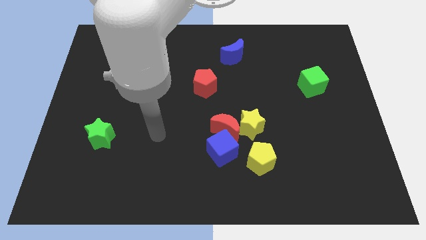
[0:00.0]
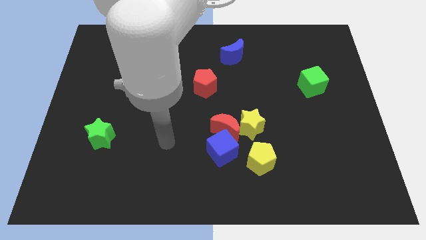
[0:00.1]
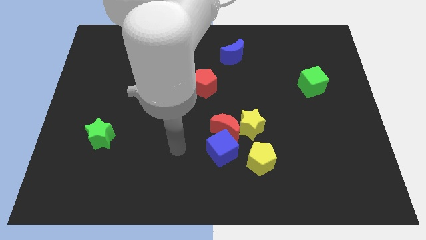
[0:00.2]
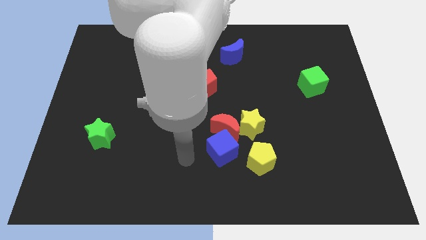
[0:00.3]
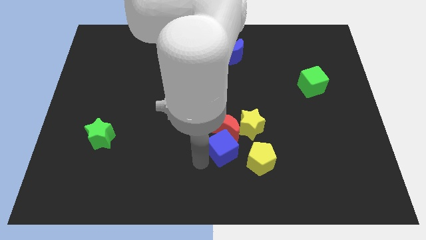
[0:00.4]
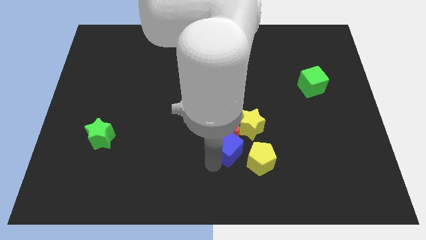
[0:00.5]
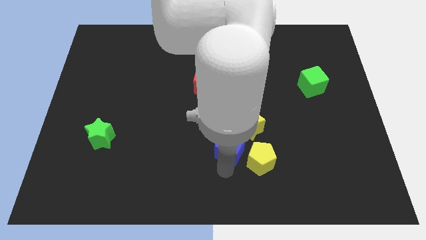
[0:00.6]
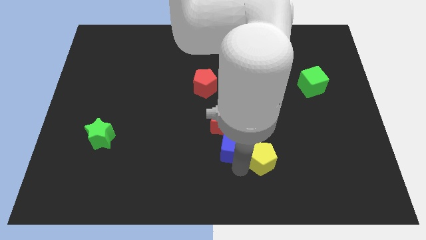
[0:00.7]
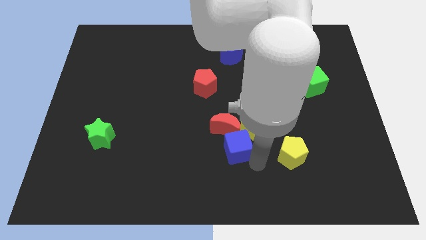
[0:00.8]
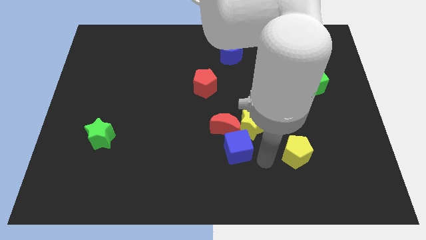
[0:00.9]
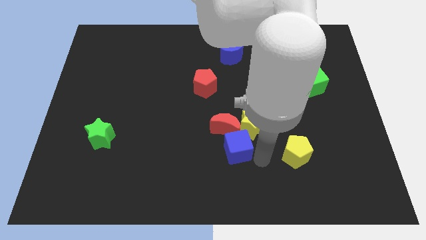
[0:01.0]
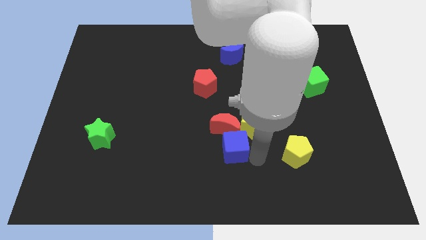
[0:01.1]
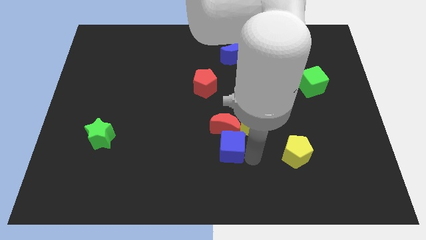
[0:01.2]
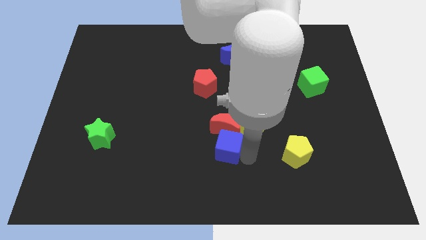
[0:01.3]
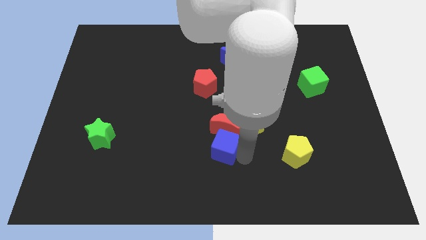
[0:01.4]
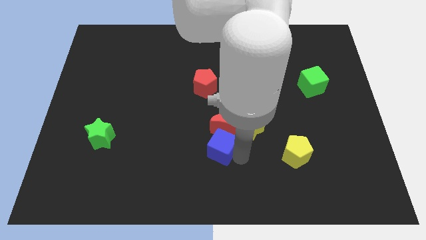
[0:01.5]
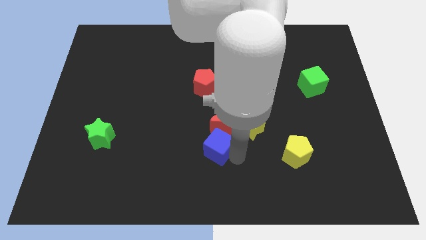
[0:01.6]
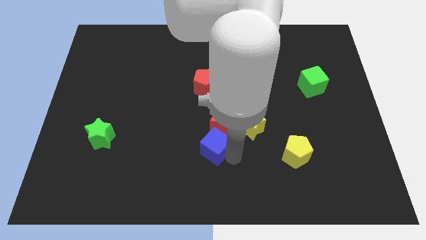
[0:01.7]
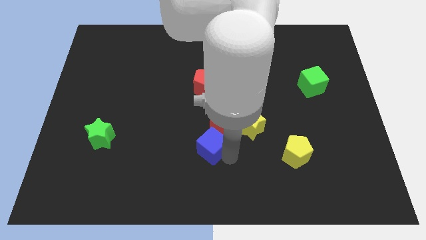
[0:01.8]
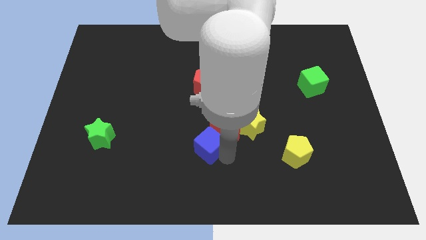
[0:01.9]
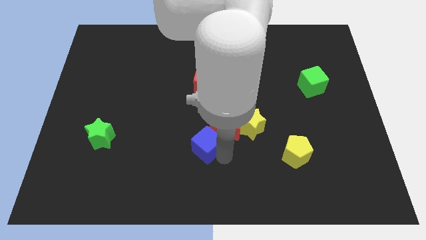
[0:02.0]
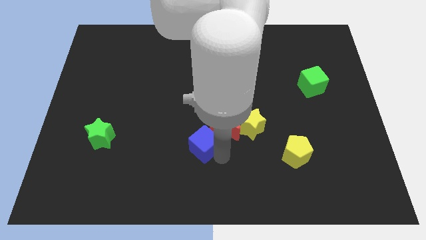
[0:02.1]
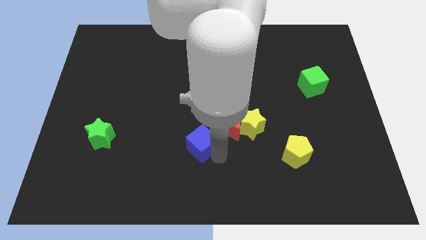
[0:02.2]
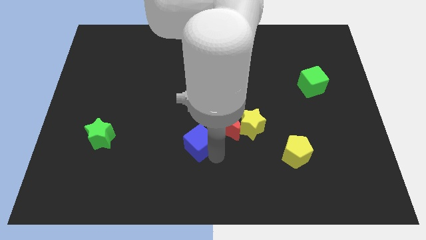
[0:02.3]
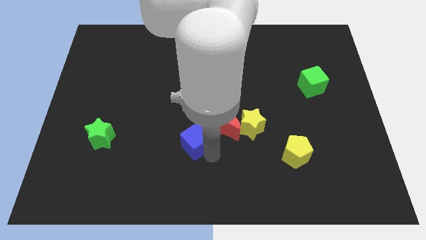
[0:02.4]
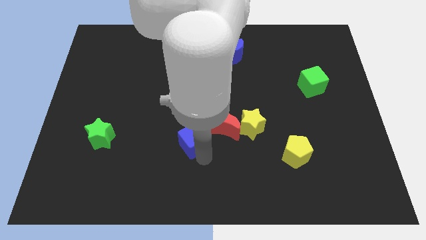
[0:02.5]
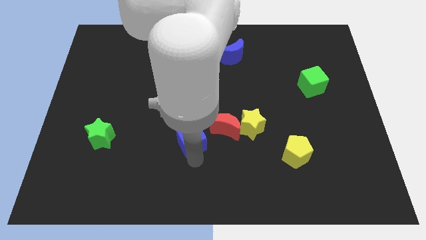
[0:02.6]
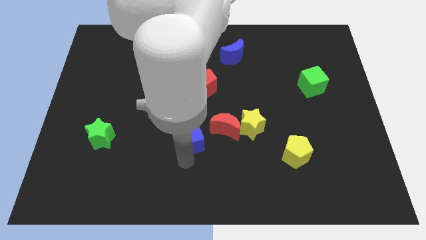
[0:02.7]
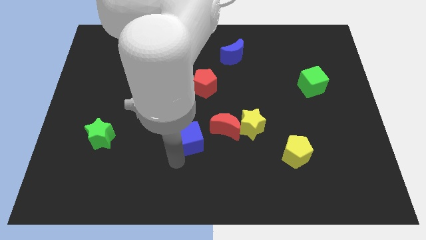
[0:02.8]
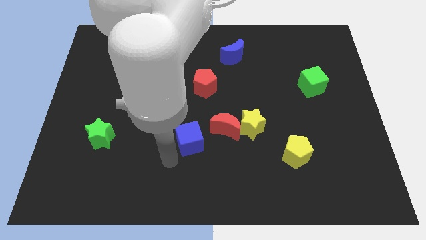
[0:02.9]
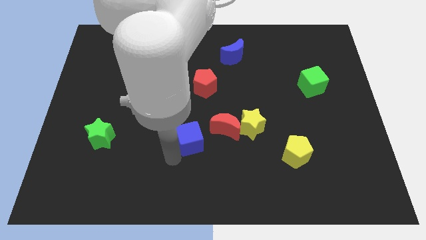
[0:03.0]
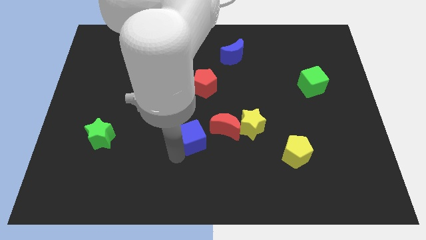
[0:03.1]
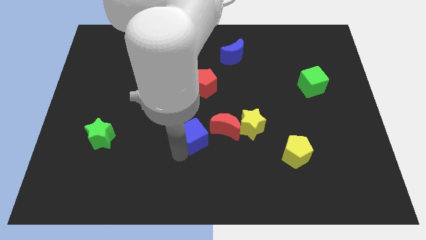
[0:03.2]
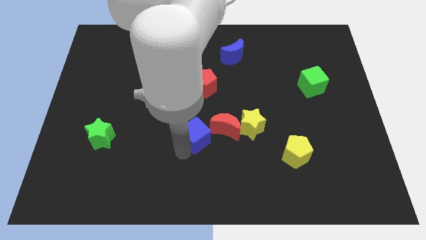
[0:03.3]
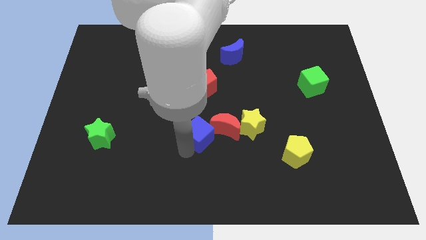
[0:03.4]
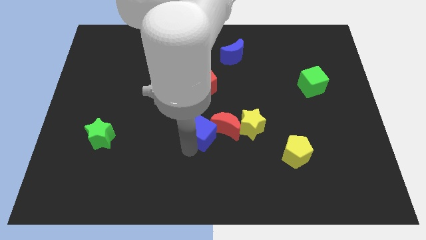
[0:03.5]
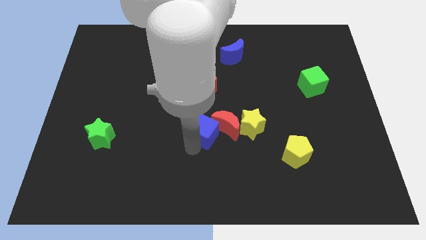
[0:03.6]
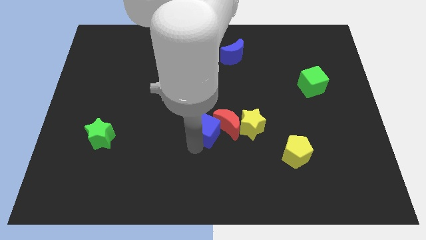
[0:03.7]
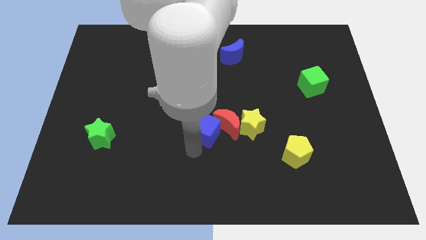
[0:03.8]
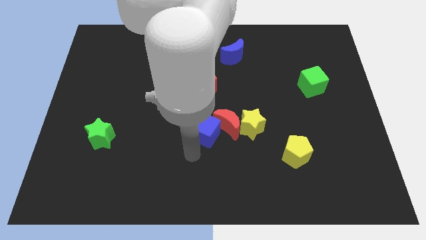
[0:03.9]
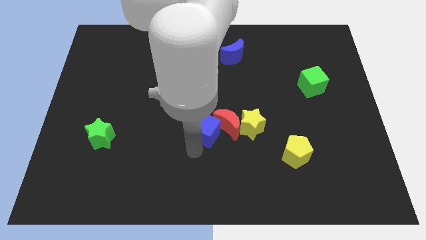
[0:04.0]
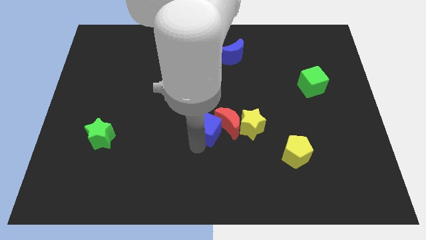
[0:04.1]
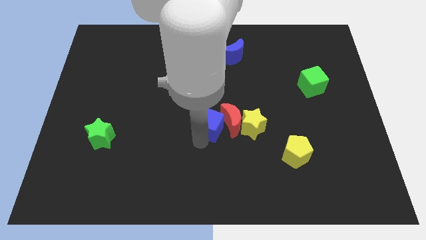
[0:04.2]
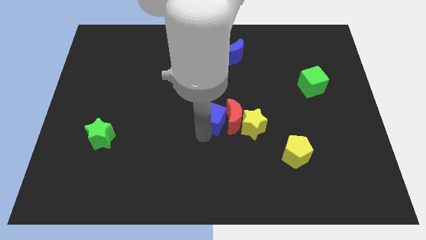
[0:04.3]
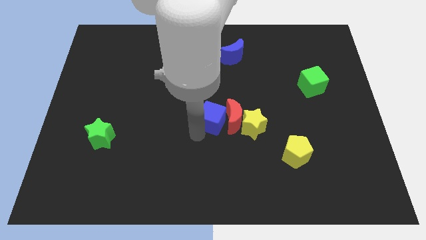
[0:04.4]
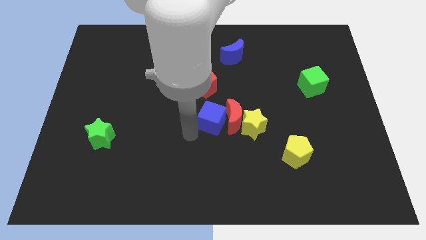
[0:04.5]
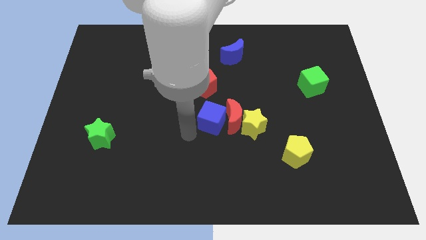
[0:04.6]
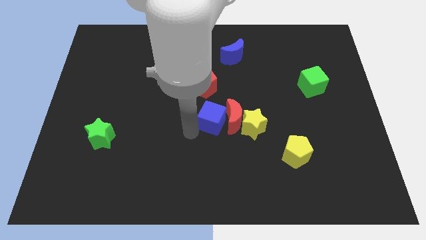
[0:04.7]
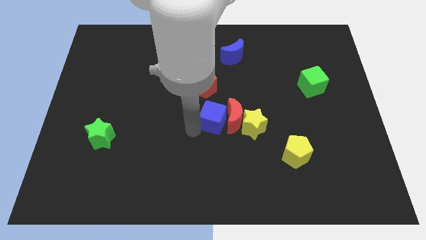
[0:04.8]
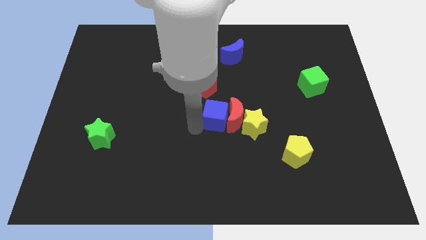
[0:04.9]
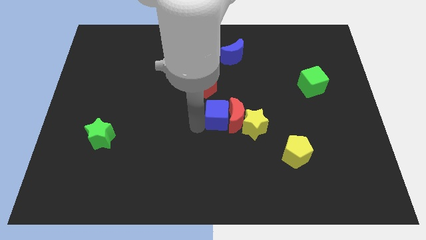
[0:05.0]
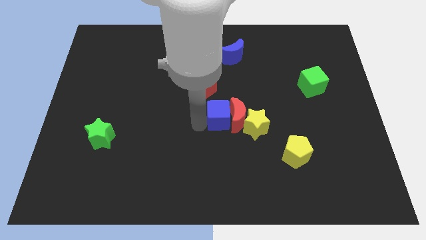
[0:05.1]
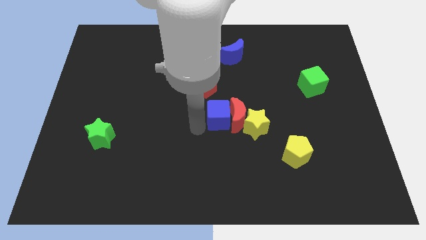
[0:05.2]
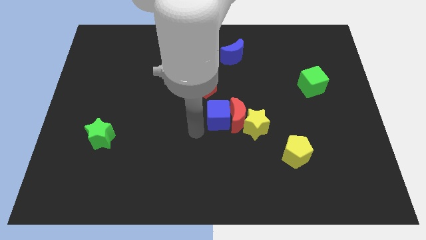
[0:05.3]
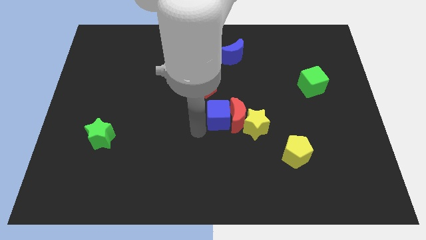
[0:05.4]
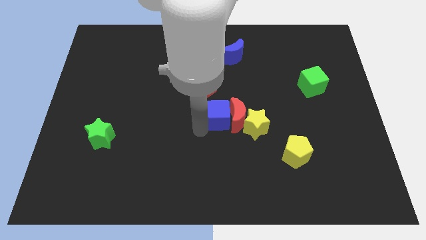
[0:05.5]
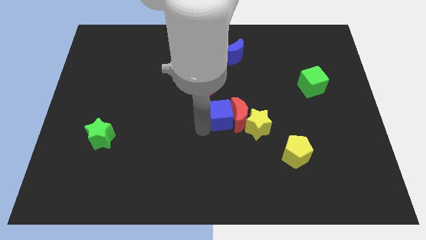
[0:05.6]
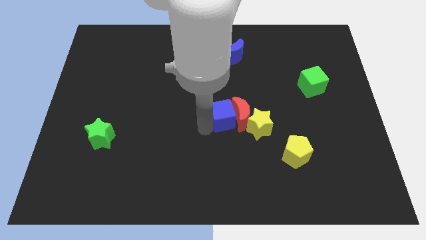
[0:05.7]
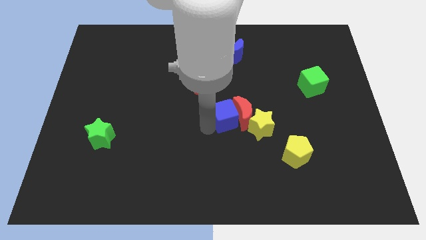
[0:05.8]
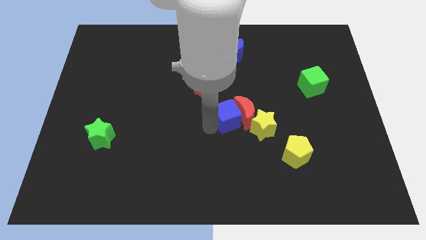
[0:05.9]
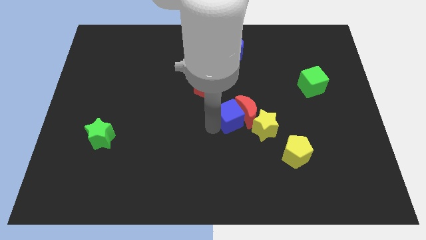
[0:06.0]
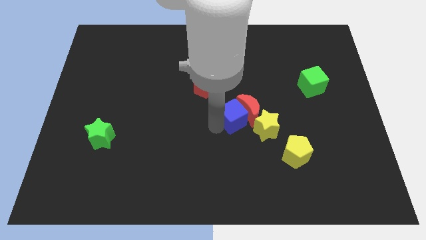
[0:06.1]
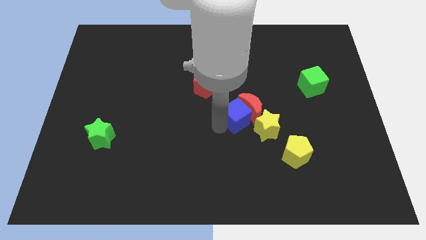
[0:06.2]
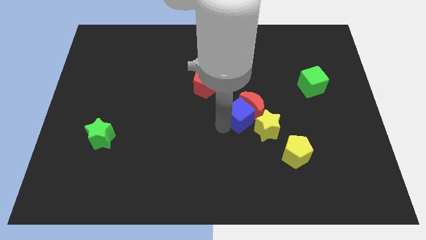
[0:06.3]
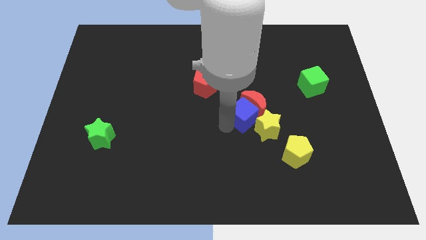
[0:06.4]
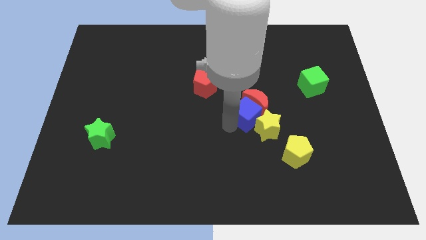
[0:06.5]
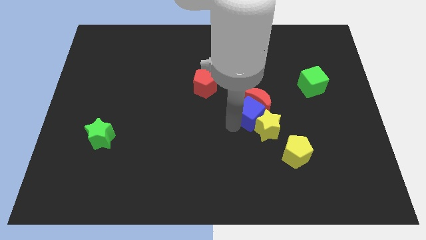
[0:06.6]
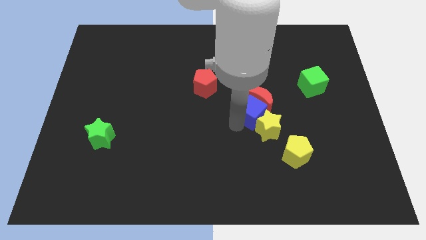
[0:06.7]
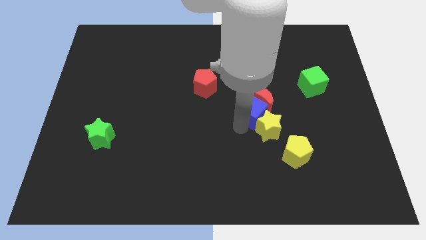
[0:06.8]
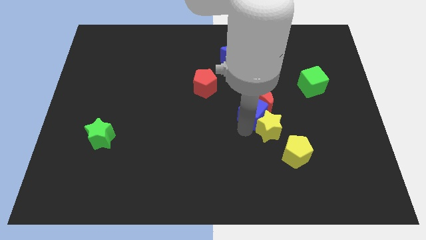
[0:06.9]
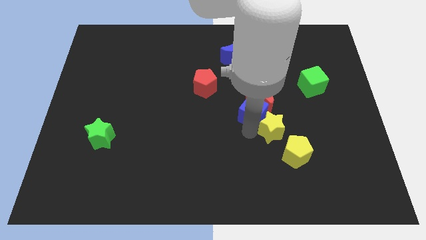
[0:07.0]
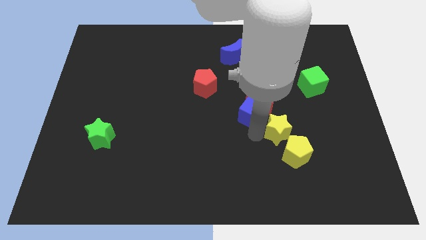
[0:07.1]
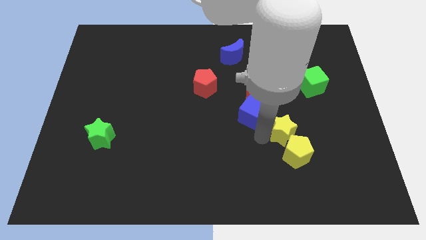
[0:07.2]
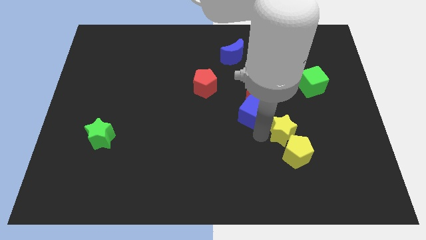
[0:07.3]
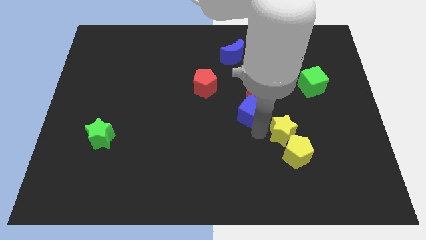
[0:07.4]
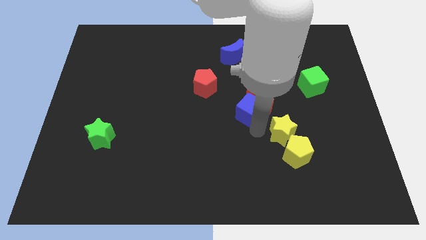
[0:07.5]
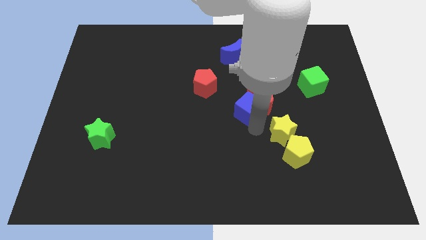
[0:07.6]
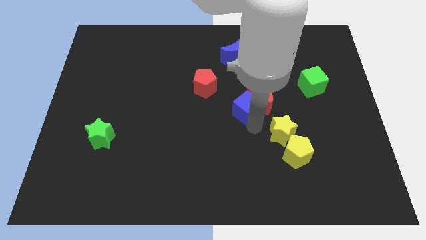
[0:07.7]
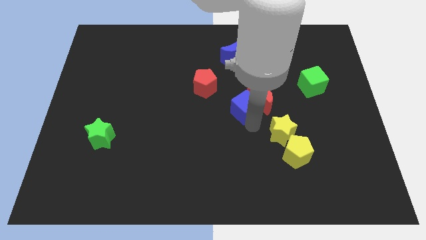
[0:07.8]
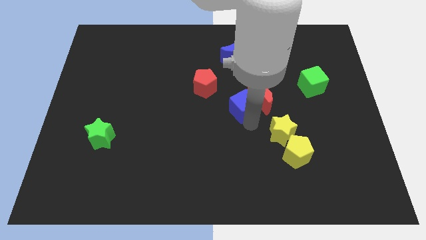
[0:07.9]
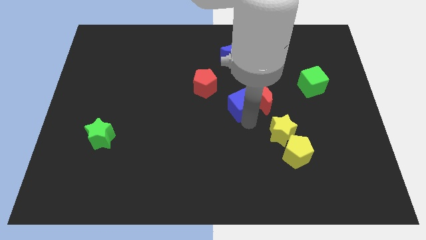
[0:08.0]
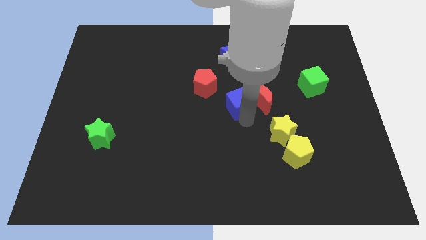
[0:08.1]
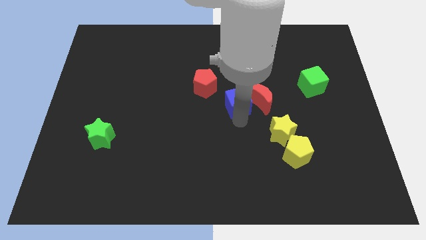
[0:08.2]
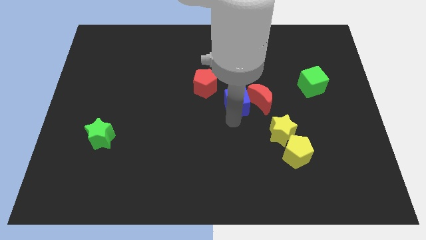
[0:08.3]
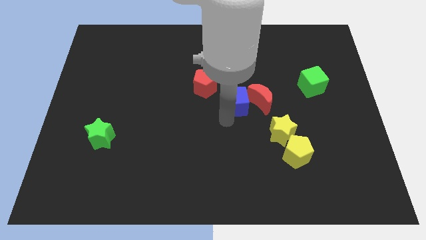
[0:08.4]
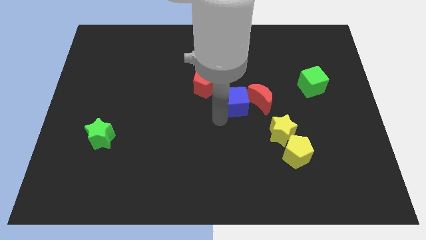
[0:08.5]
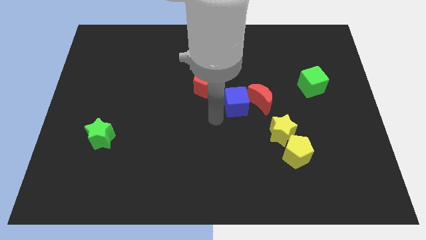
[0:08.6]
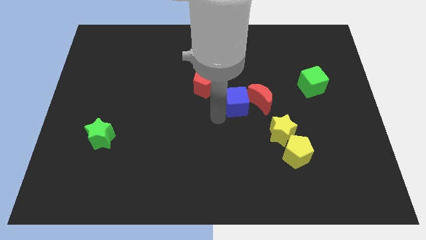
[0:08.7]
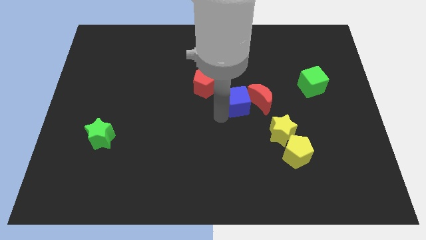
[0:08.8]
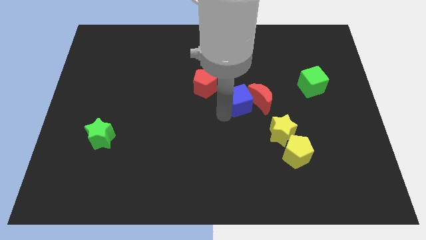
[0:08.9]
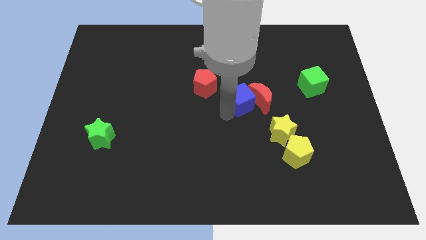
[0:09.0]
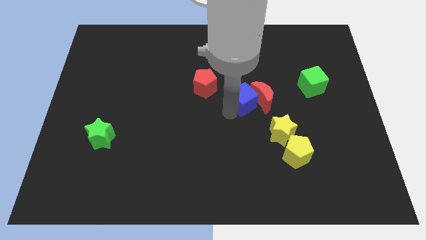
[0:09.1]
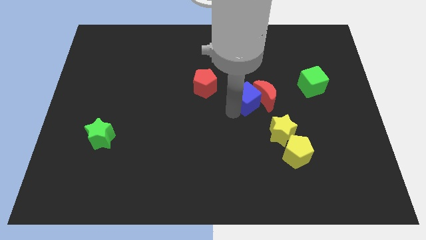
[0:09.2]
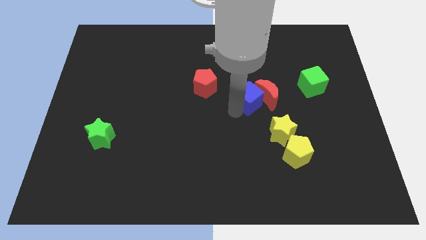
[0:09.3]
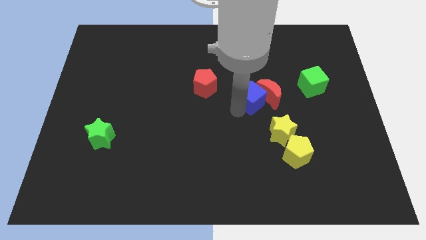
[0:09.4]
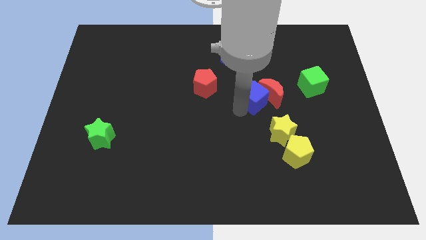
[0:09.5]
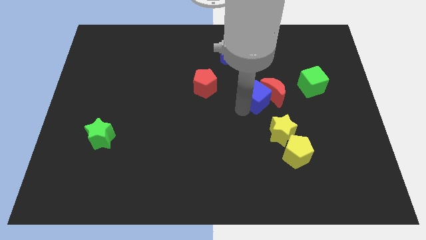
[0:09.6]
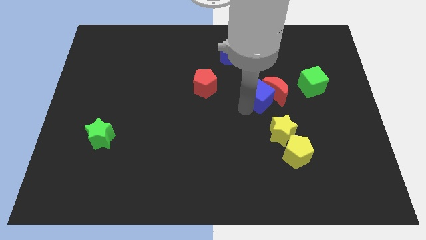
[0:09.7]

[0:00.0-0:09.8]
push the blue cube just left of the green cube
